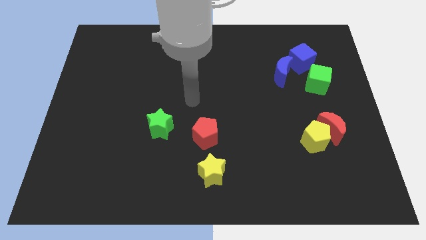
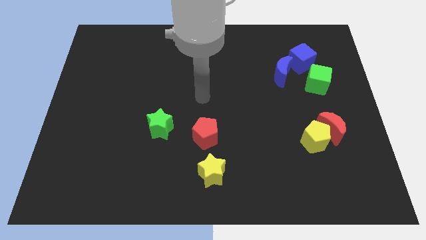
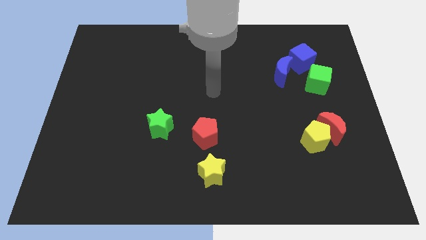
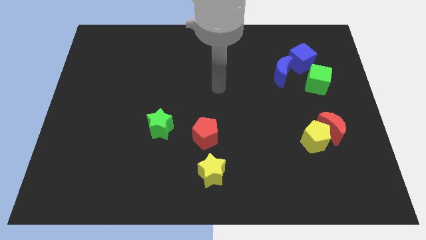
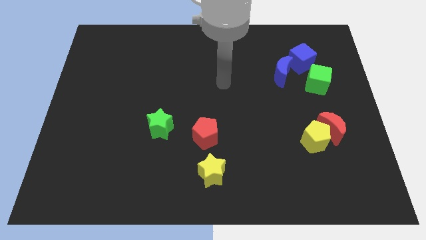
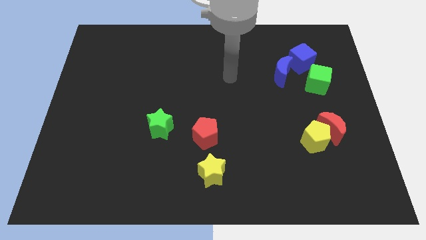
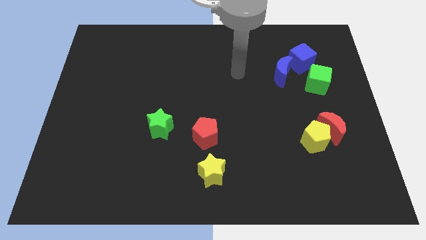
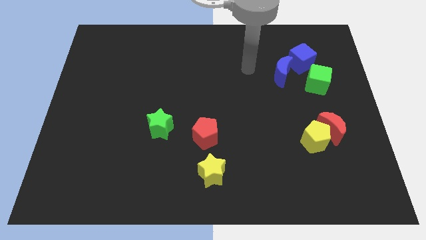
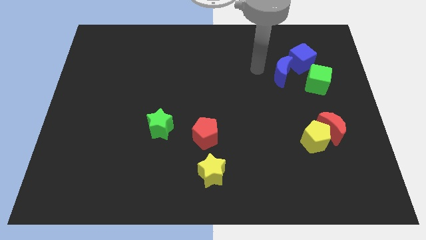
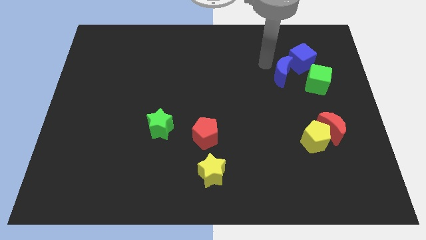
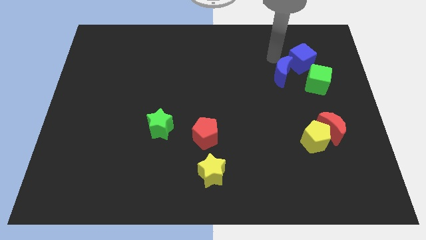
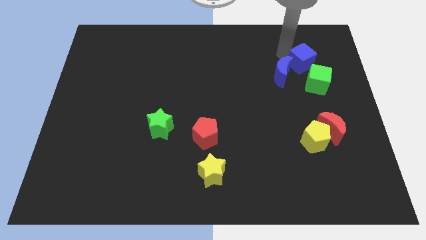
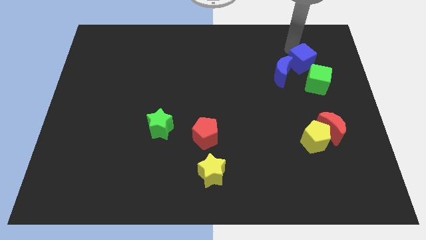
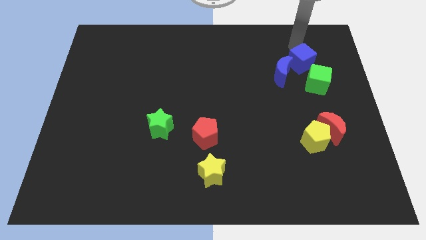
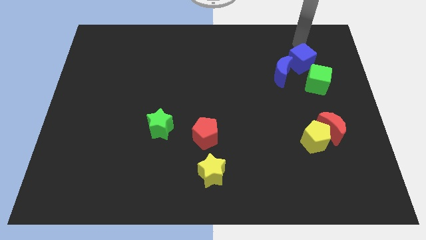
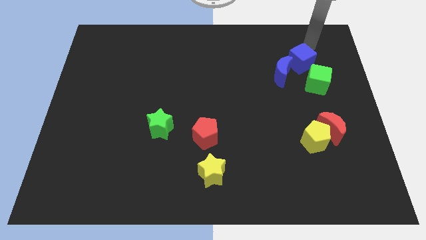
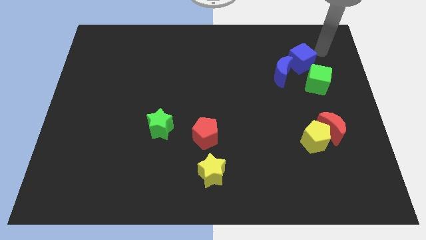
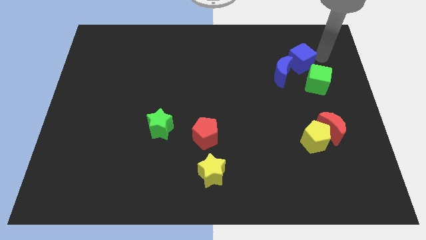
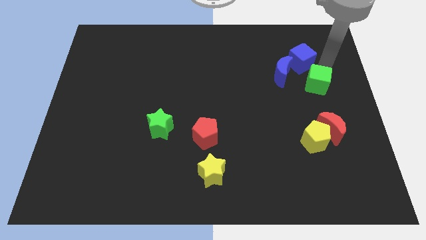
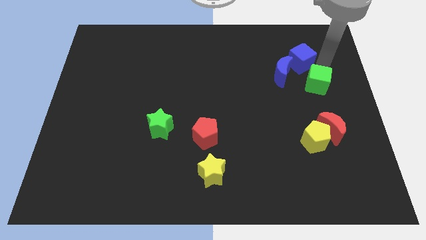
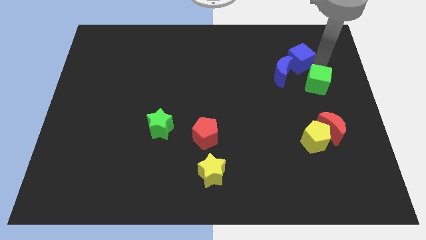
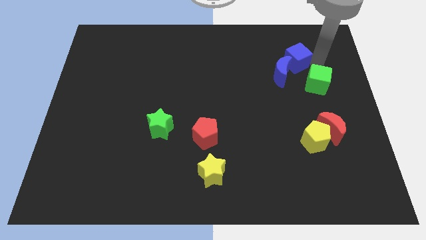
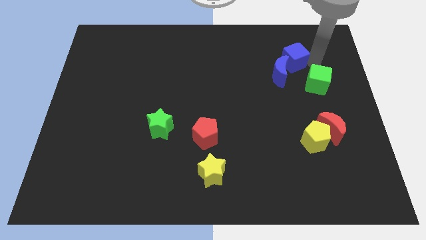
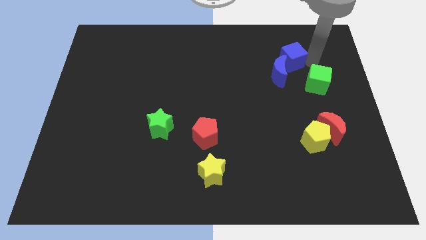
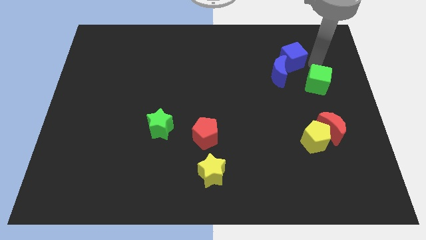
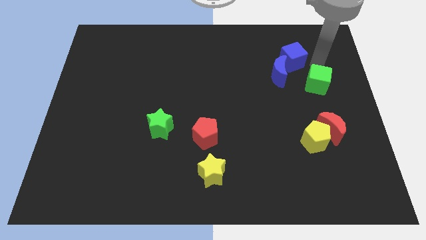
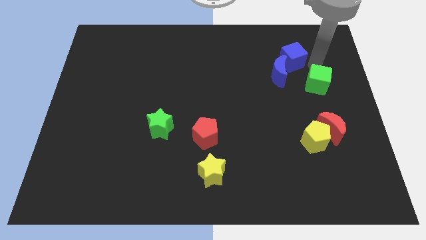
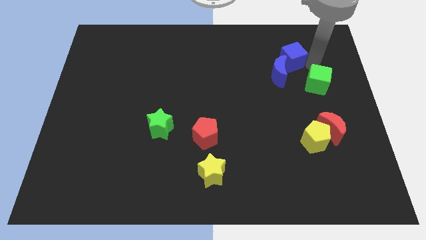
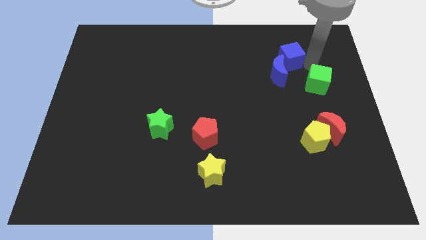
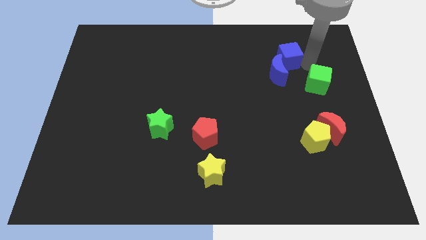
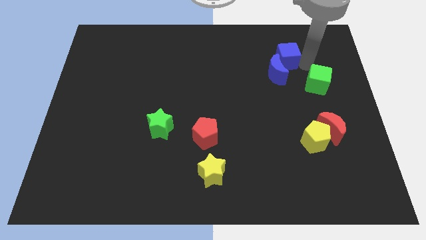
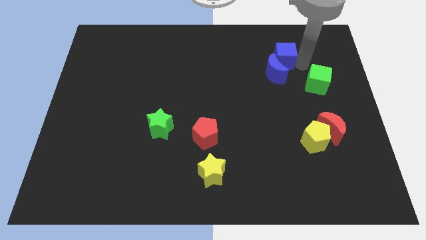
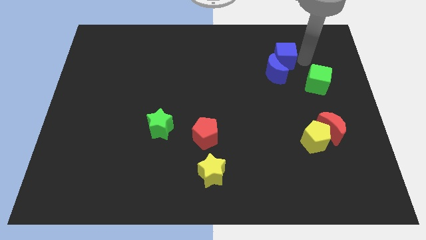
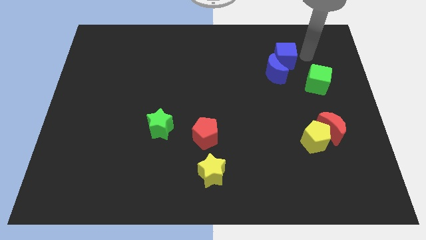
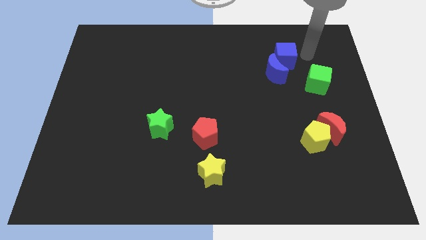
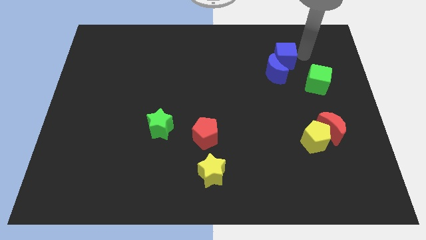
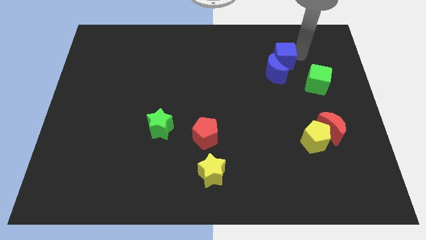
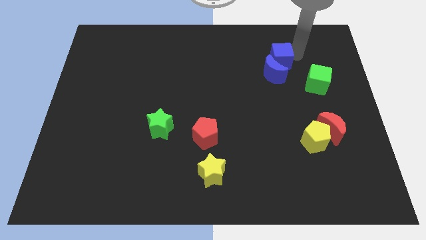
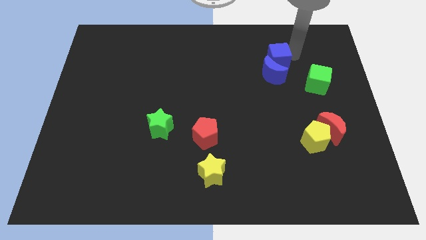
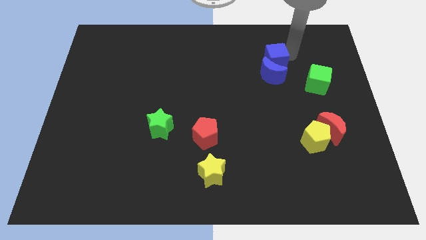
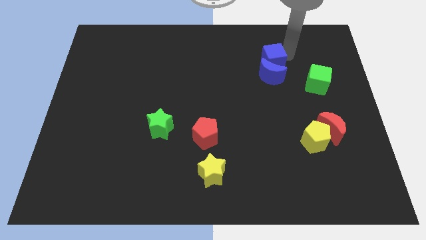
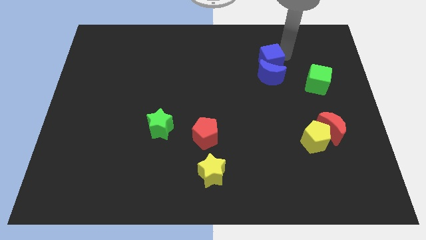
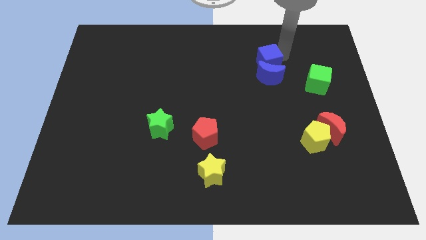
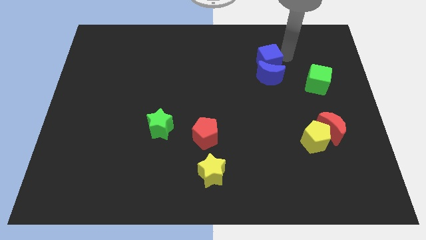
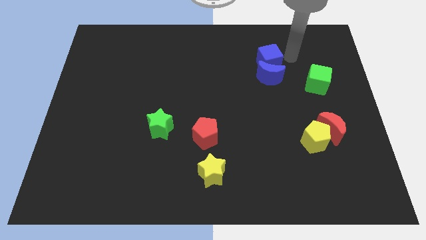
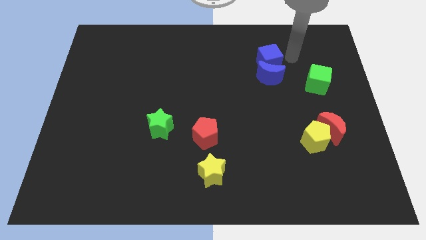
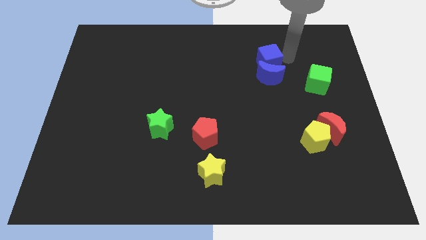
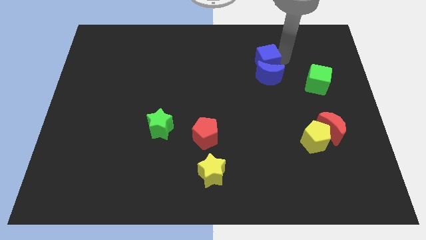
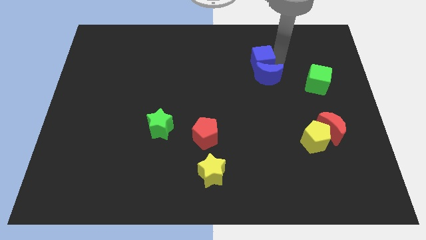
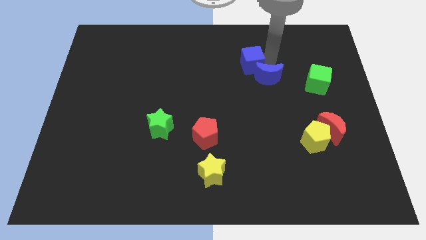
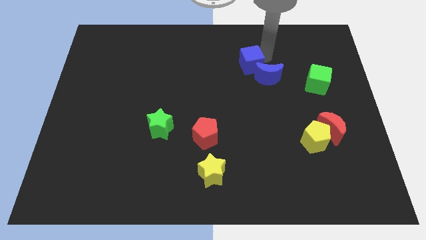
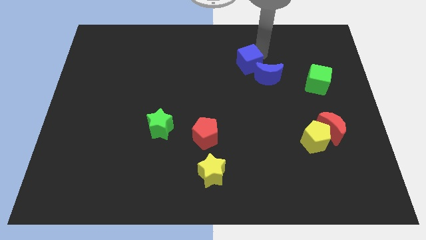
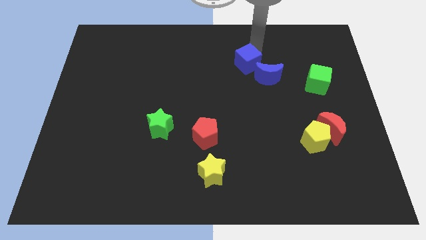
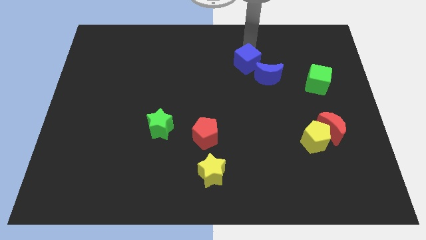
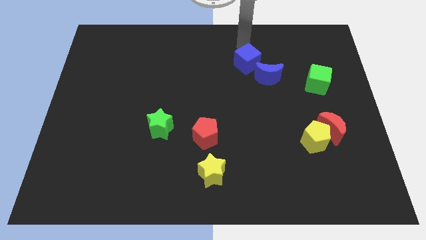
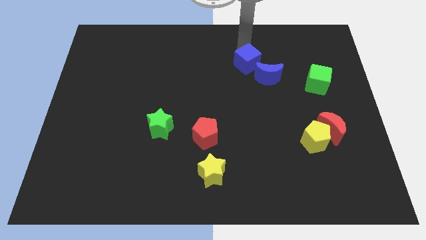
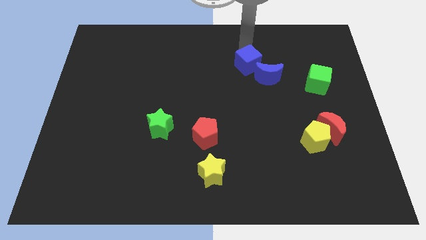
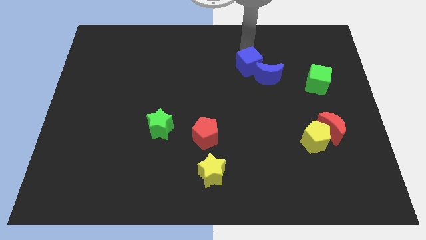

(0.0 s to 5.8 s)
slightly slide the blue cube down and then left

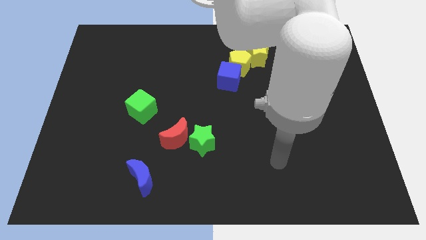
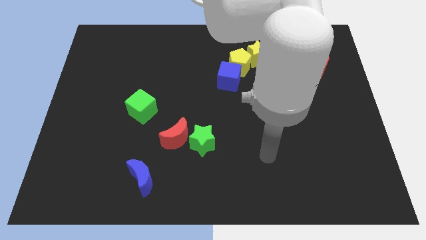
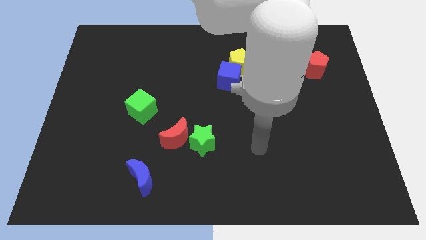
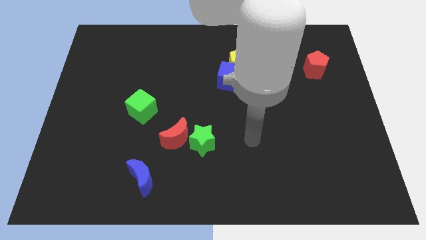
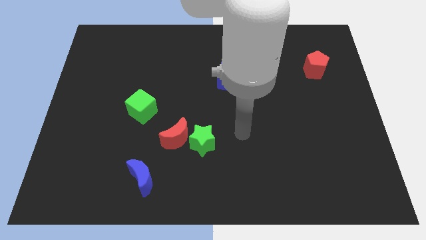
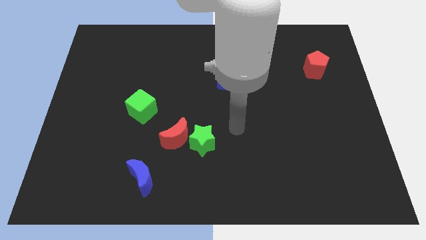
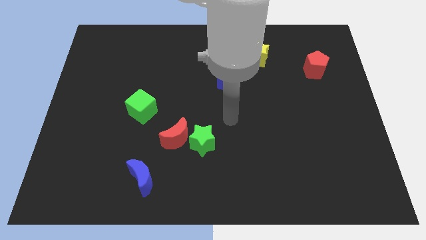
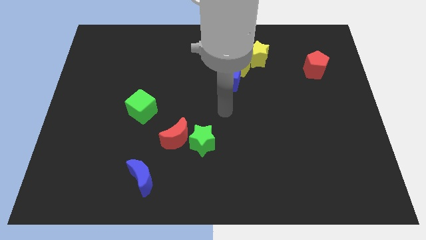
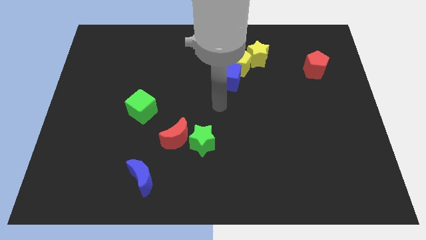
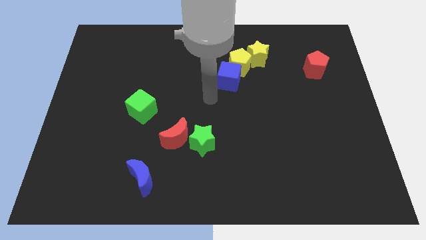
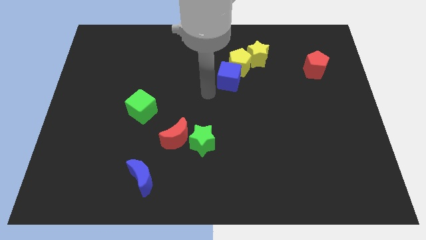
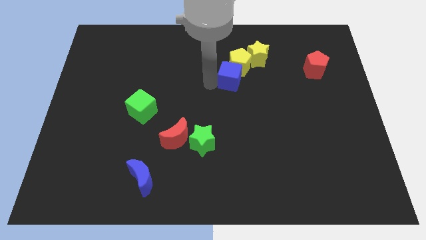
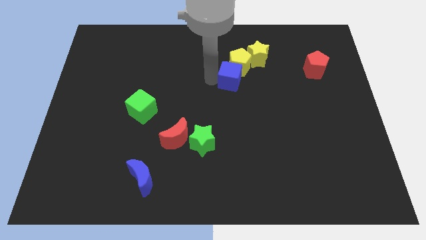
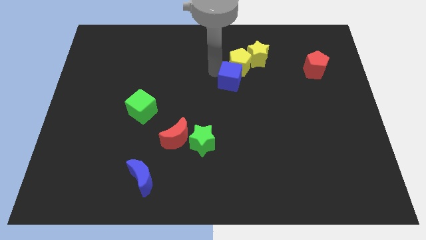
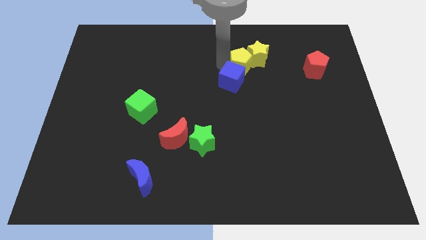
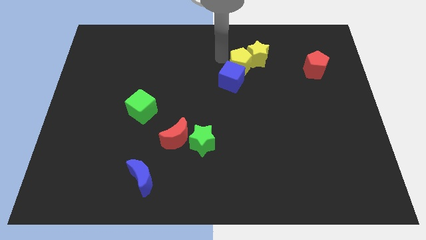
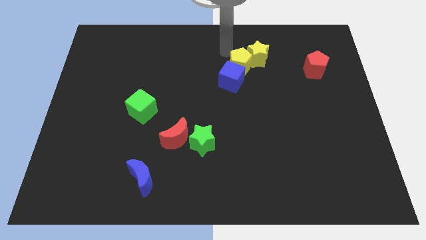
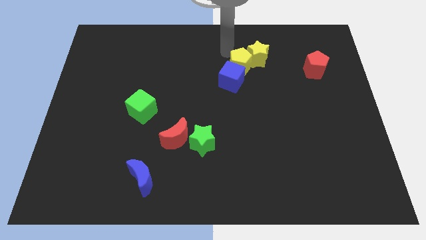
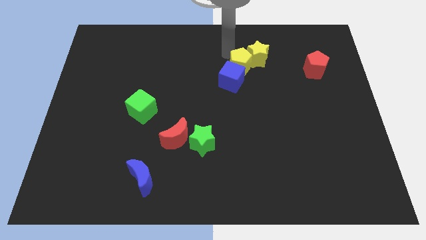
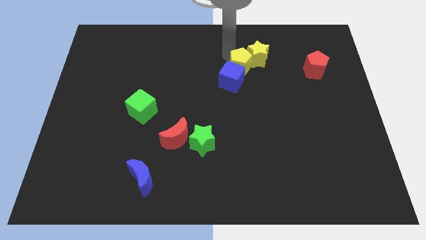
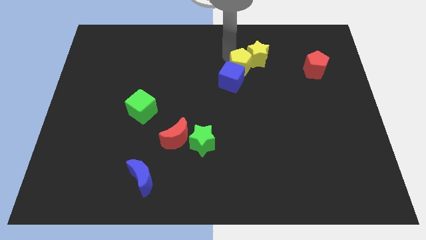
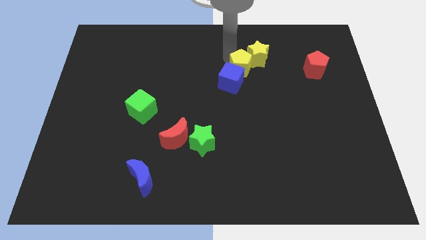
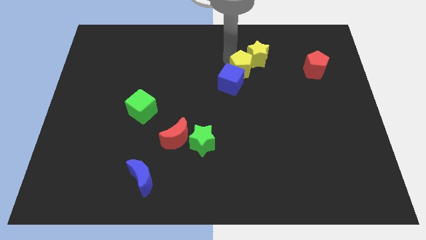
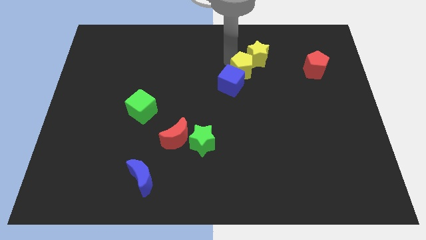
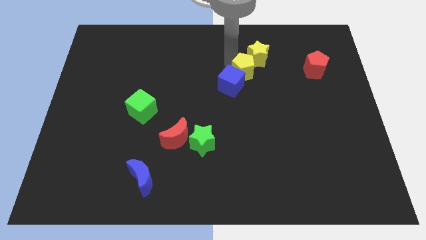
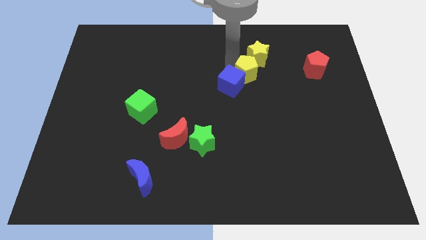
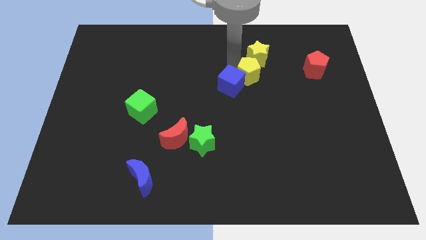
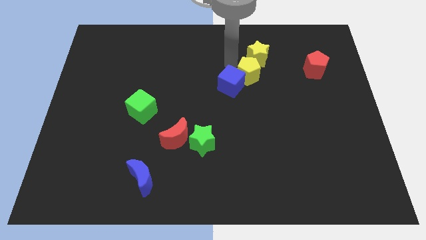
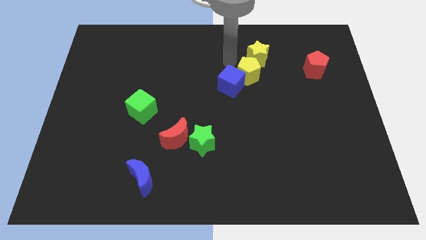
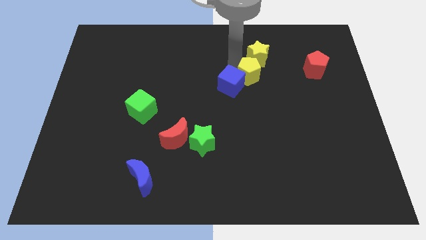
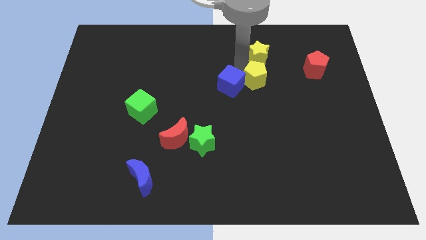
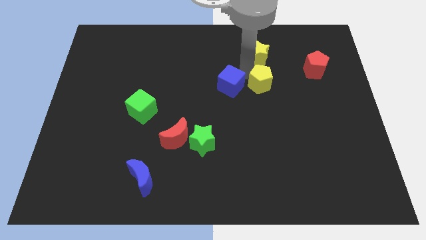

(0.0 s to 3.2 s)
push the yellow pentagon down and right diagonally slightly
